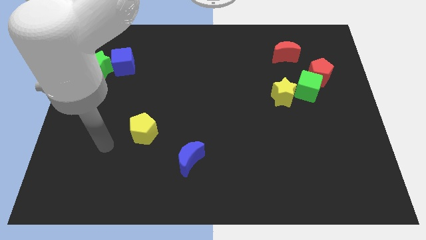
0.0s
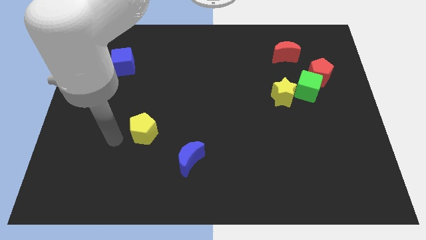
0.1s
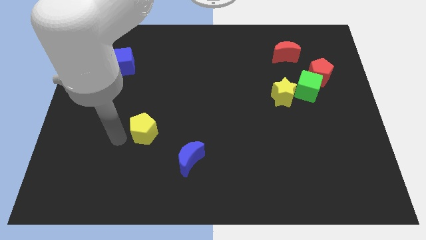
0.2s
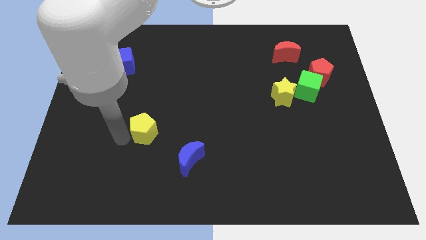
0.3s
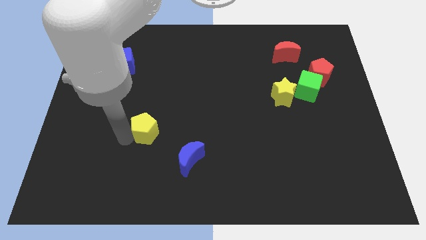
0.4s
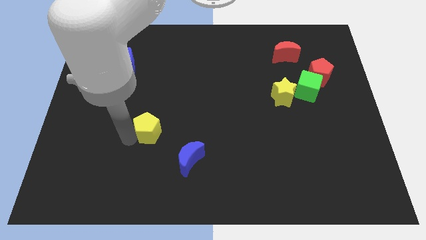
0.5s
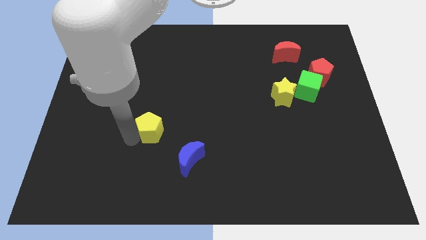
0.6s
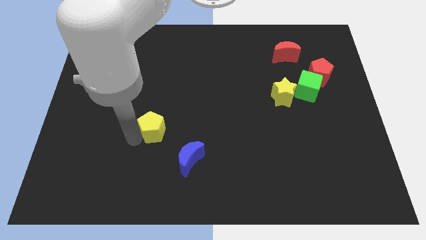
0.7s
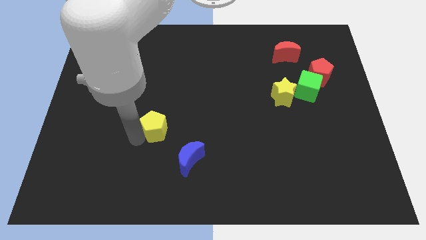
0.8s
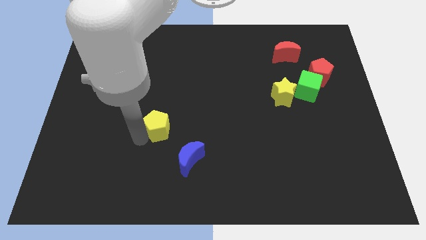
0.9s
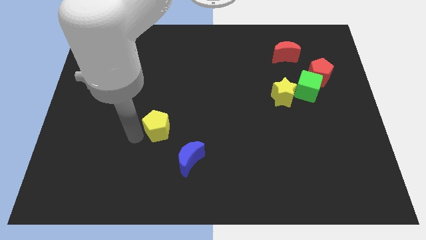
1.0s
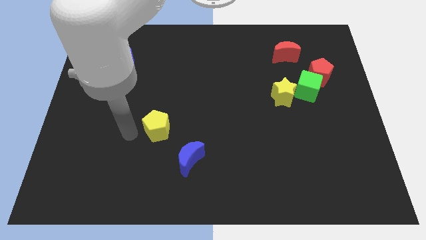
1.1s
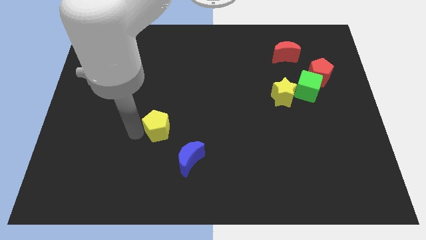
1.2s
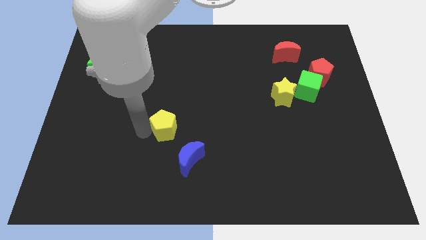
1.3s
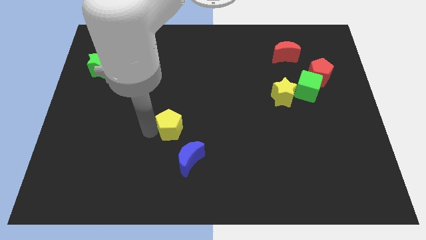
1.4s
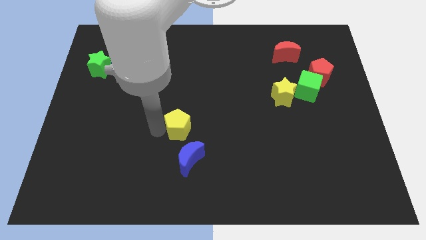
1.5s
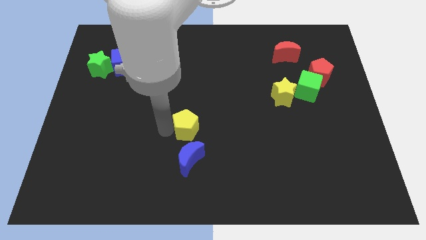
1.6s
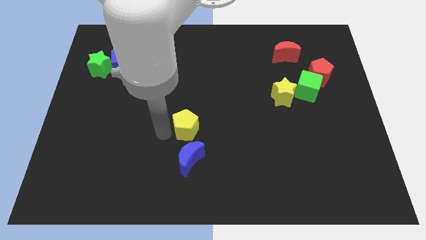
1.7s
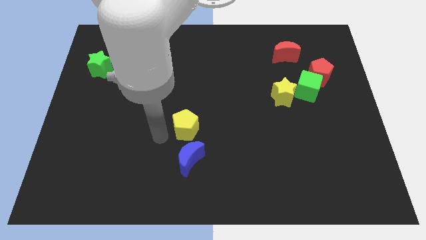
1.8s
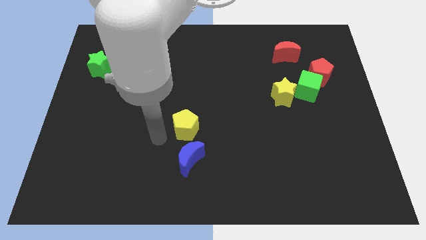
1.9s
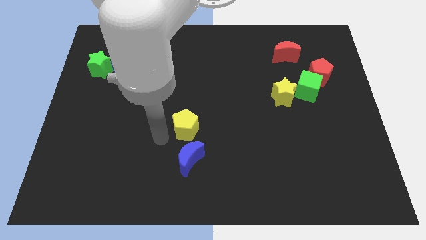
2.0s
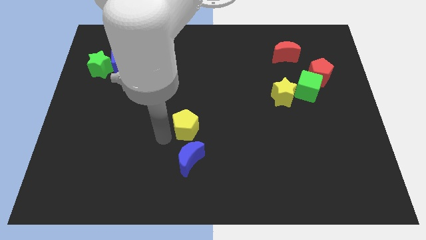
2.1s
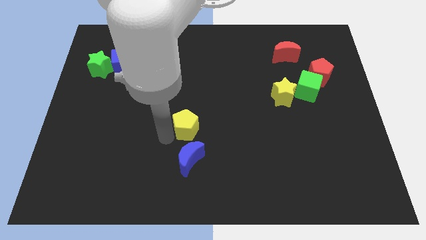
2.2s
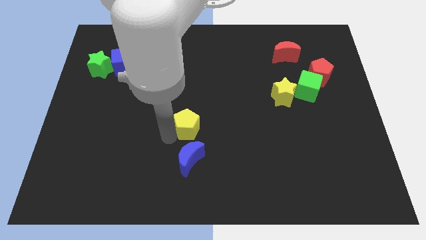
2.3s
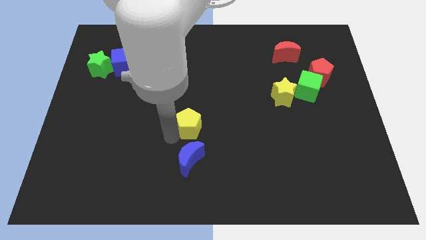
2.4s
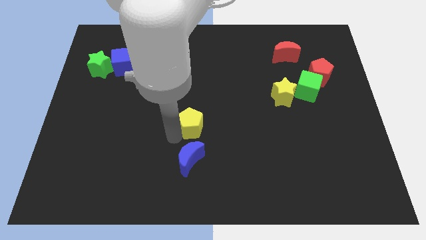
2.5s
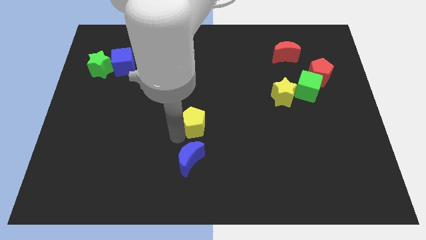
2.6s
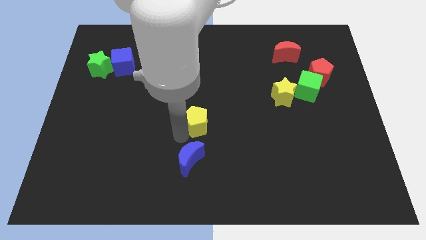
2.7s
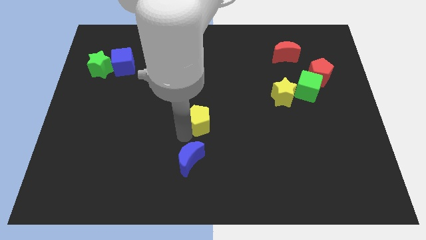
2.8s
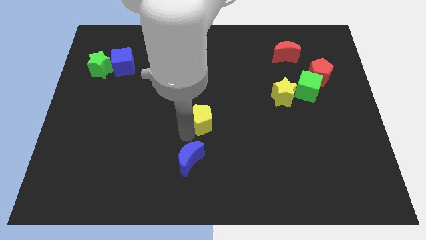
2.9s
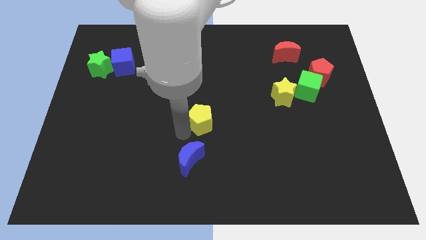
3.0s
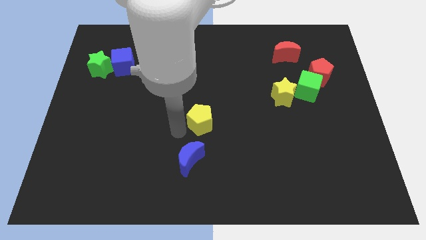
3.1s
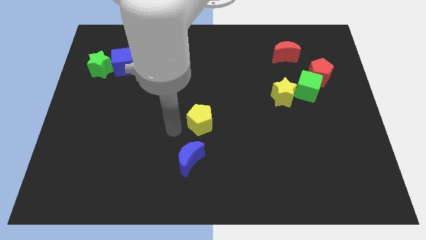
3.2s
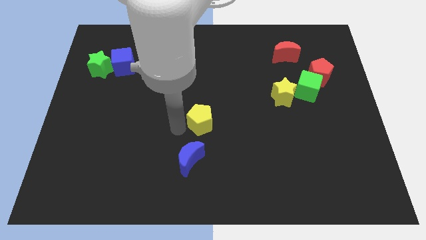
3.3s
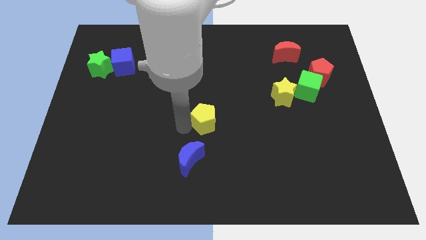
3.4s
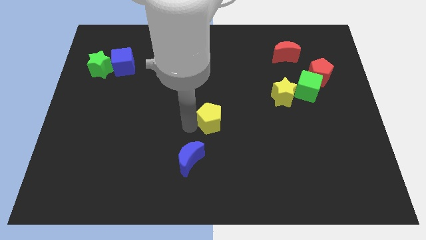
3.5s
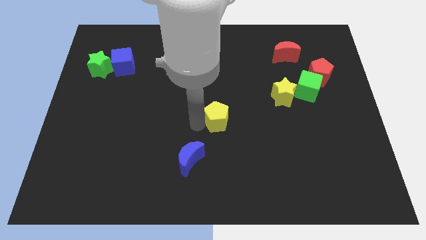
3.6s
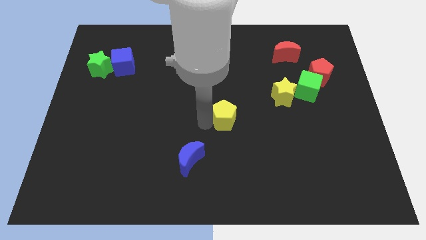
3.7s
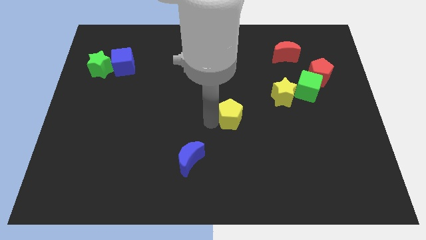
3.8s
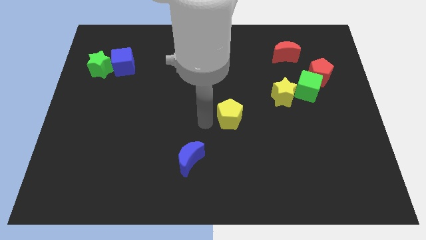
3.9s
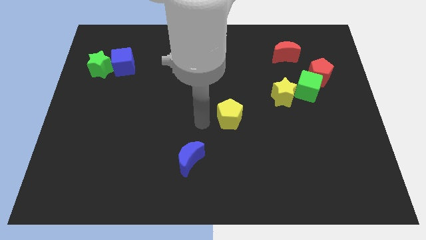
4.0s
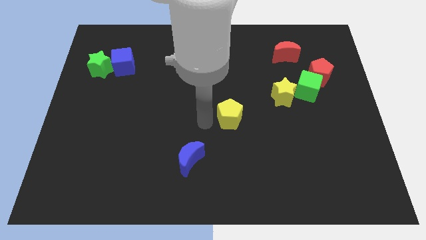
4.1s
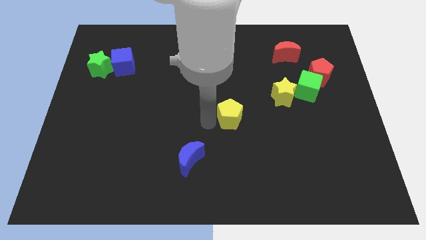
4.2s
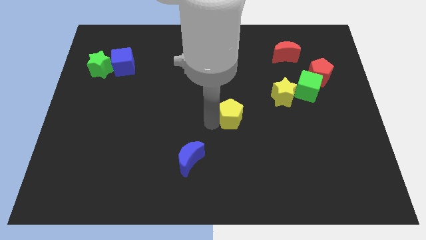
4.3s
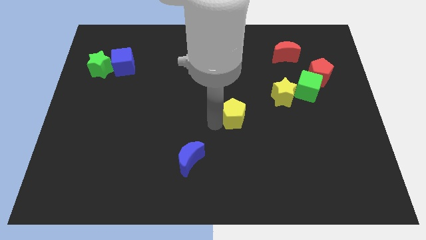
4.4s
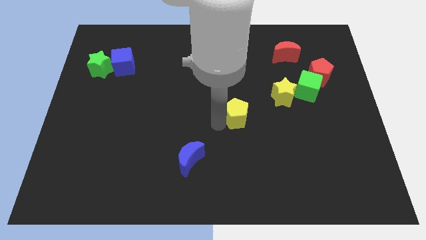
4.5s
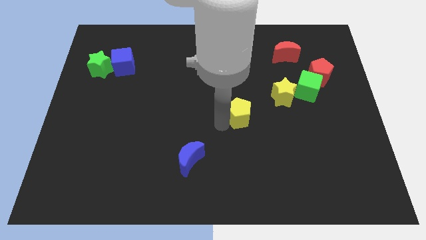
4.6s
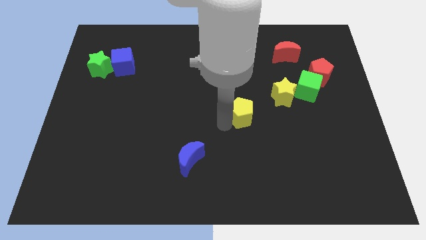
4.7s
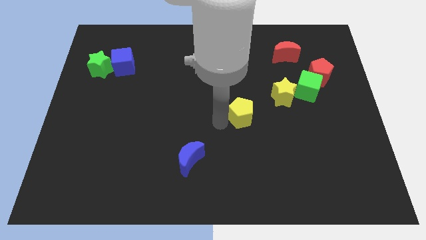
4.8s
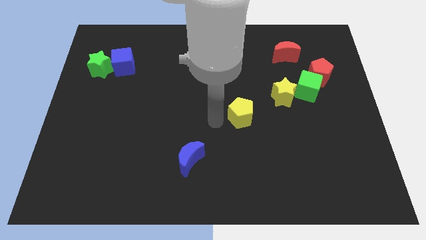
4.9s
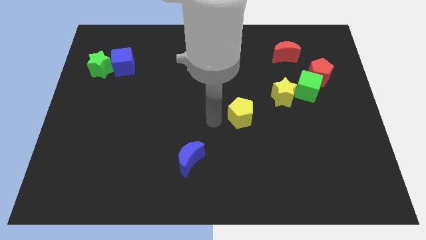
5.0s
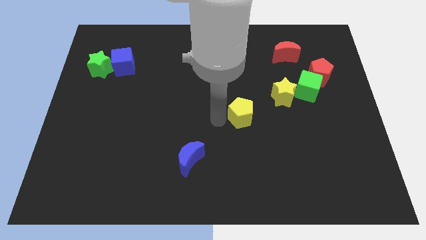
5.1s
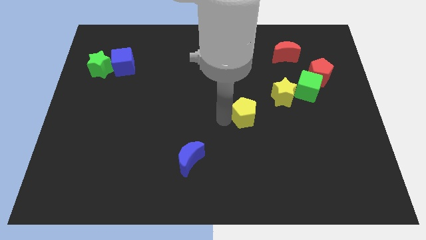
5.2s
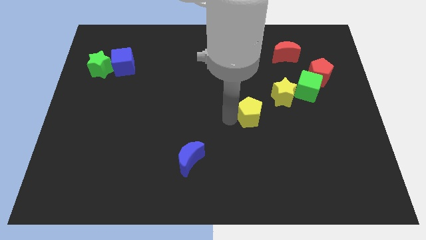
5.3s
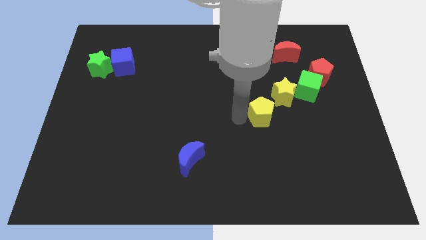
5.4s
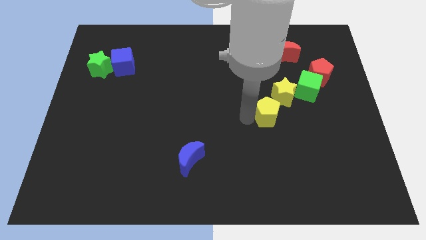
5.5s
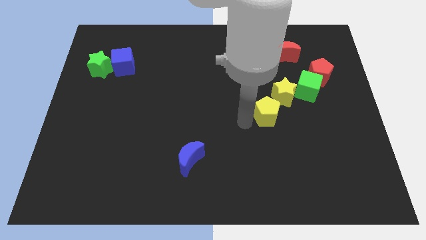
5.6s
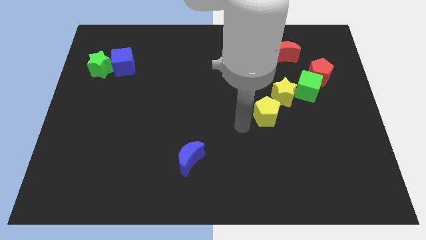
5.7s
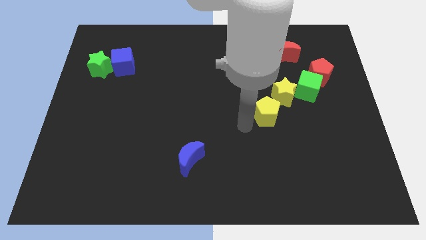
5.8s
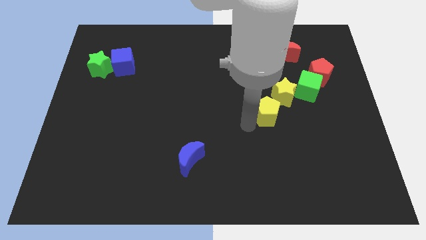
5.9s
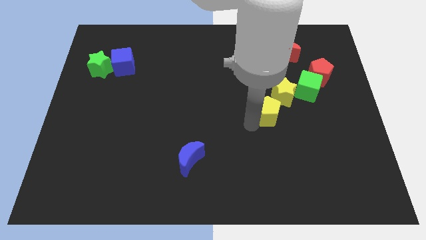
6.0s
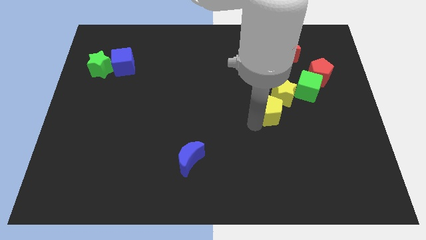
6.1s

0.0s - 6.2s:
push the yellow pentagon to the bottom left side of the green cube
